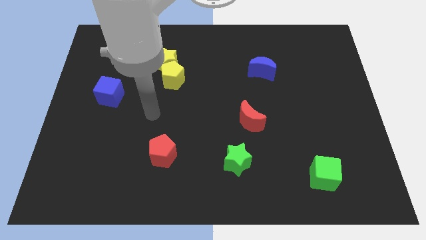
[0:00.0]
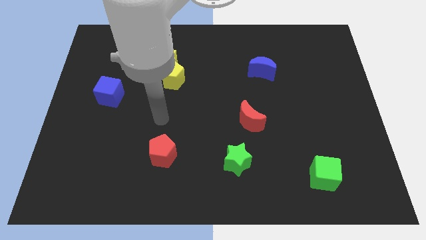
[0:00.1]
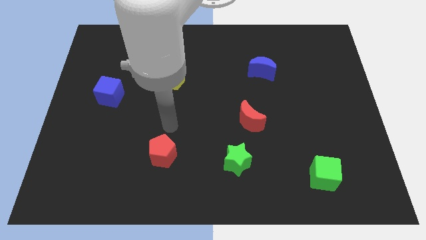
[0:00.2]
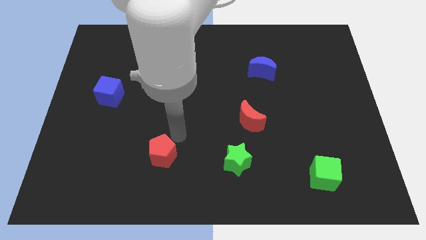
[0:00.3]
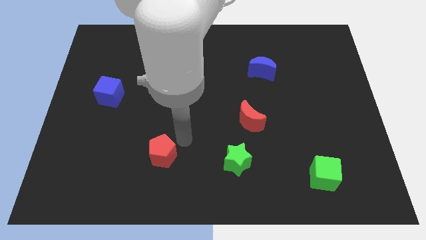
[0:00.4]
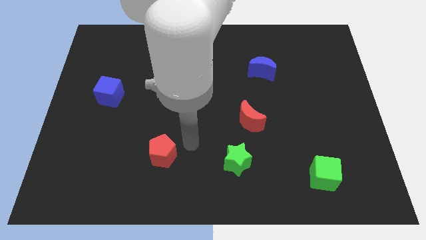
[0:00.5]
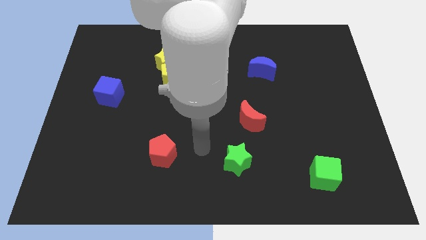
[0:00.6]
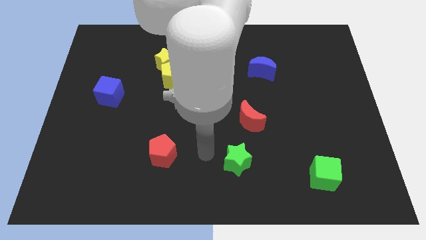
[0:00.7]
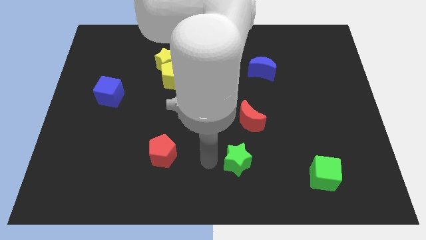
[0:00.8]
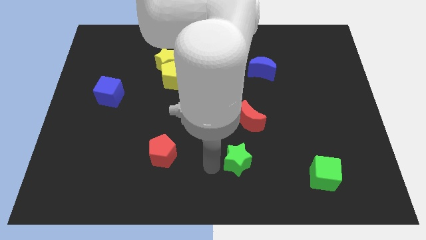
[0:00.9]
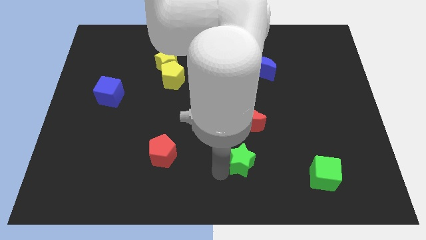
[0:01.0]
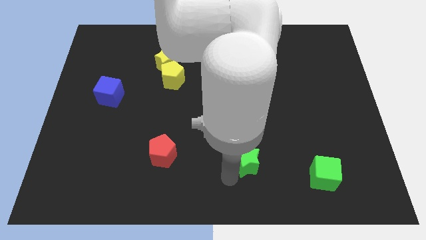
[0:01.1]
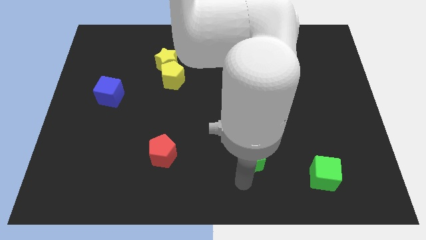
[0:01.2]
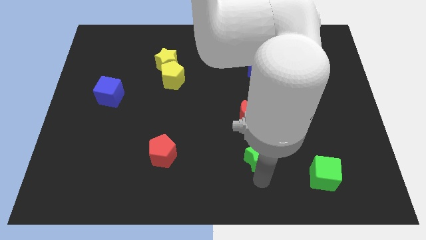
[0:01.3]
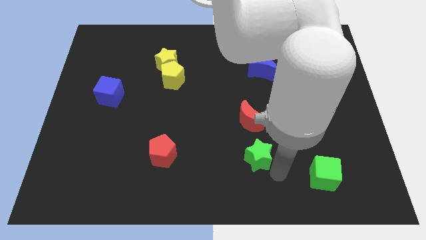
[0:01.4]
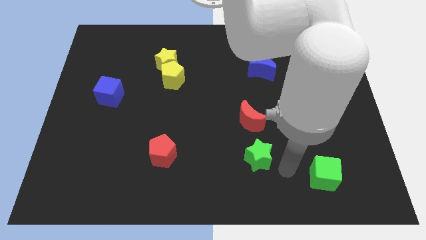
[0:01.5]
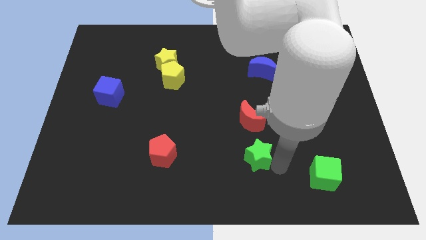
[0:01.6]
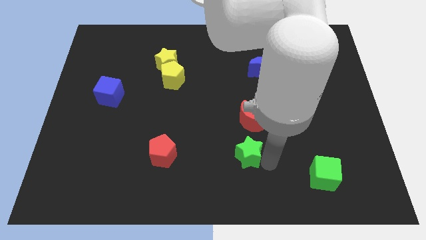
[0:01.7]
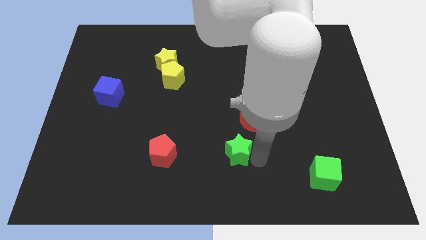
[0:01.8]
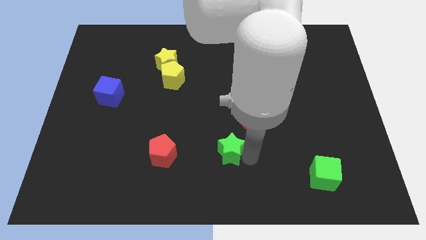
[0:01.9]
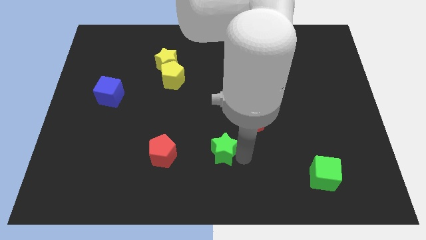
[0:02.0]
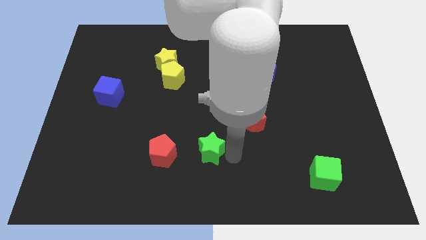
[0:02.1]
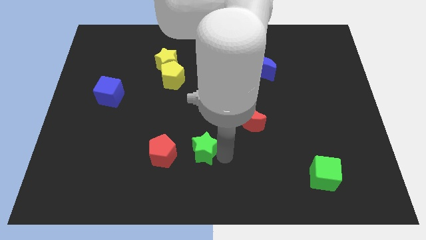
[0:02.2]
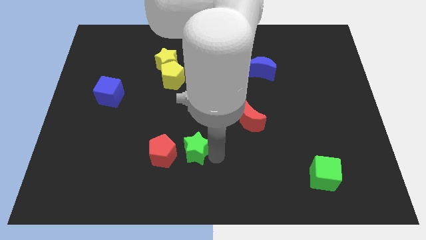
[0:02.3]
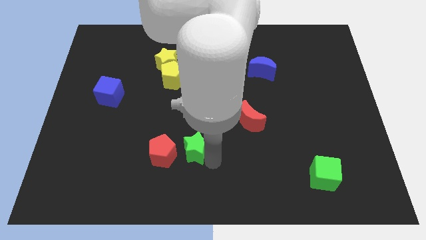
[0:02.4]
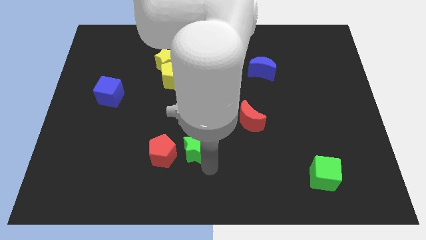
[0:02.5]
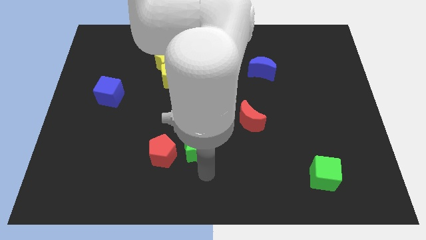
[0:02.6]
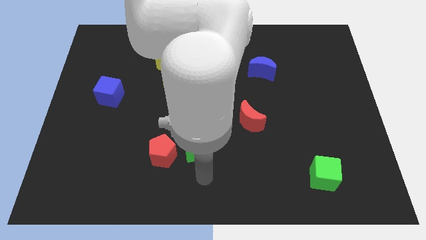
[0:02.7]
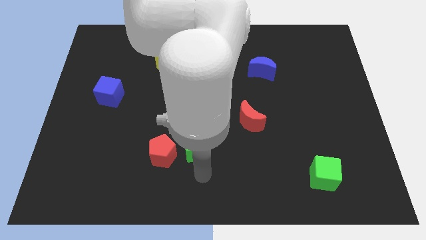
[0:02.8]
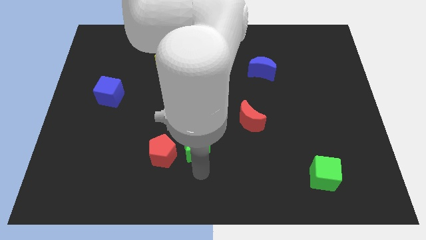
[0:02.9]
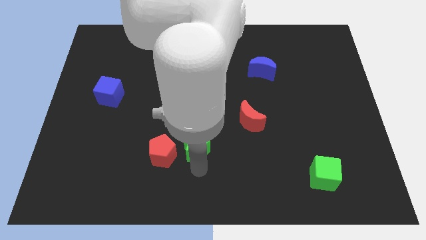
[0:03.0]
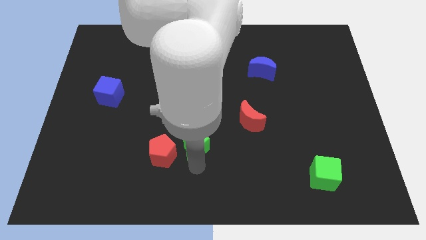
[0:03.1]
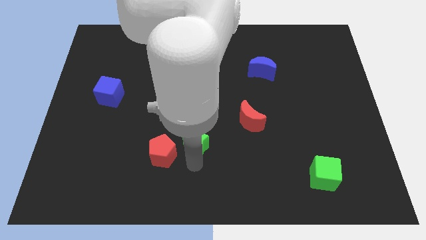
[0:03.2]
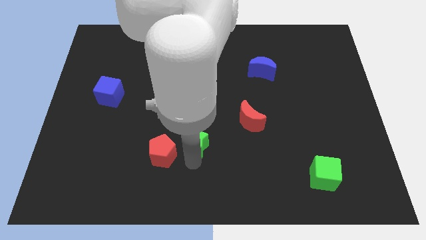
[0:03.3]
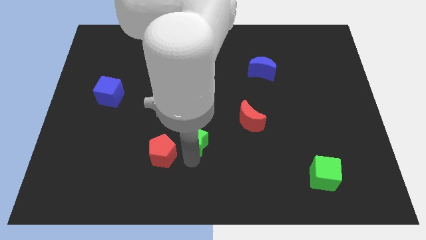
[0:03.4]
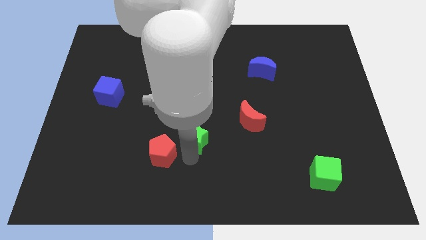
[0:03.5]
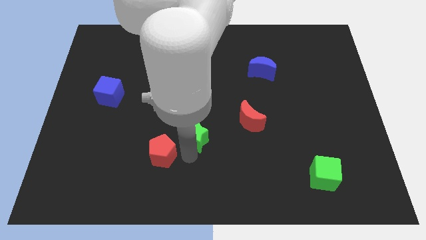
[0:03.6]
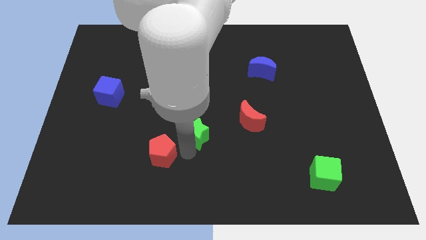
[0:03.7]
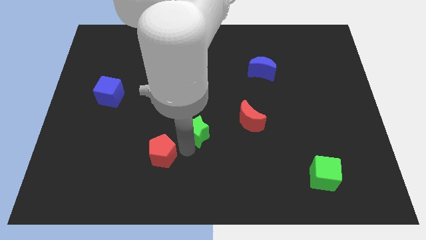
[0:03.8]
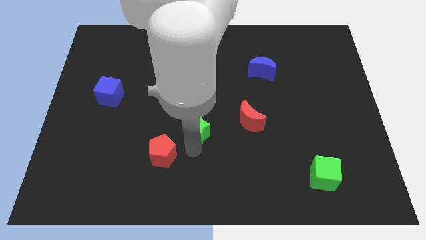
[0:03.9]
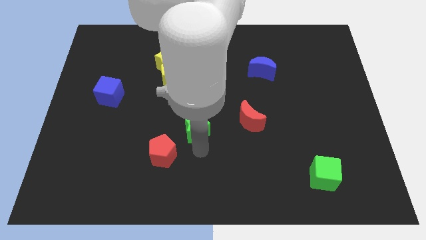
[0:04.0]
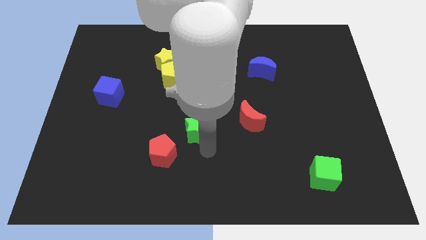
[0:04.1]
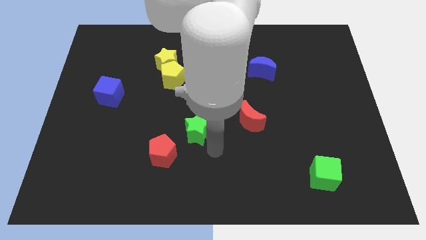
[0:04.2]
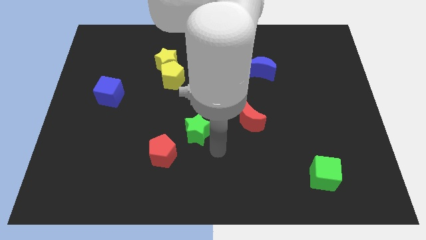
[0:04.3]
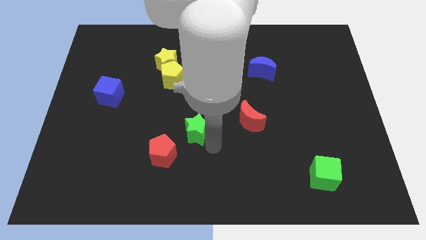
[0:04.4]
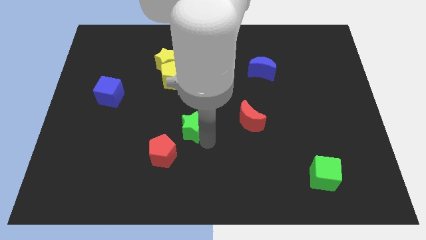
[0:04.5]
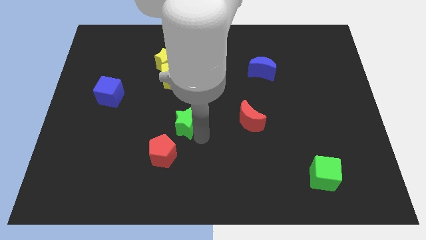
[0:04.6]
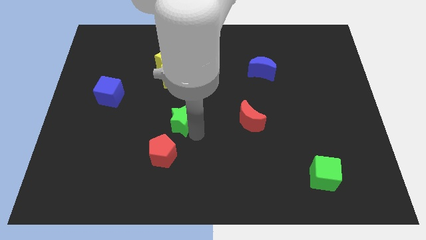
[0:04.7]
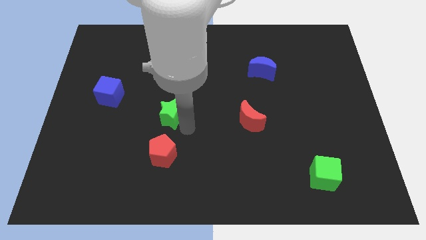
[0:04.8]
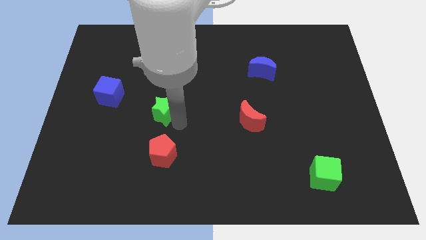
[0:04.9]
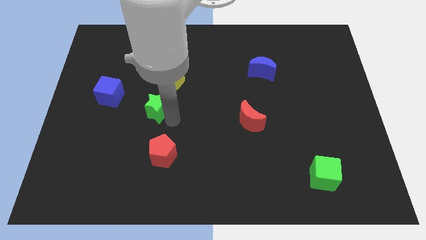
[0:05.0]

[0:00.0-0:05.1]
move the green star to the right of the blue cube
